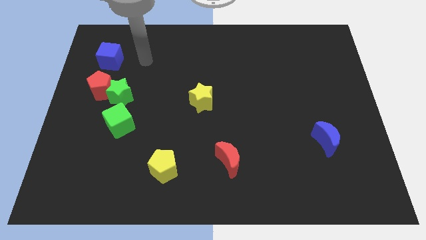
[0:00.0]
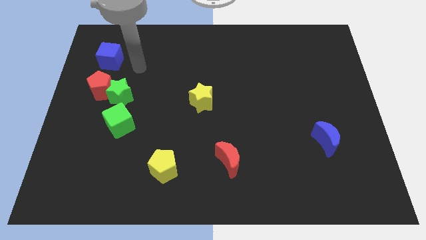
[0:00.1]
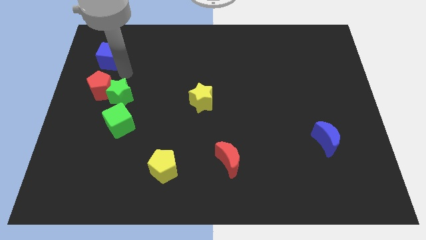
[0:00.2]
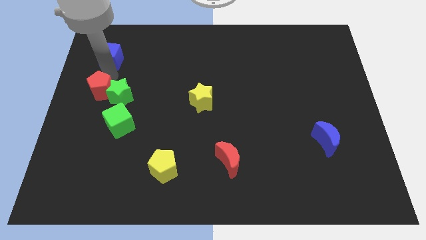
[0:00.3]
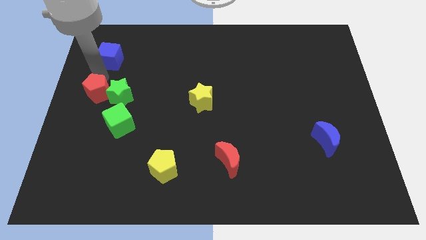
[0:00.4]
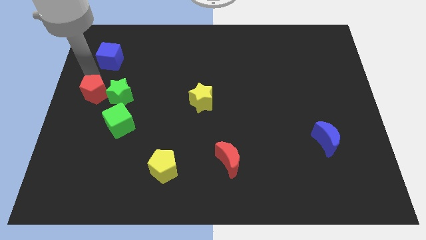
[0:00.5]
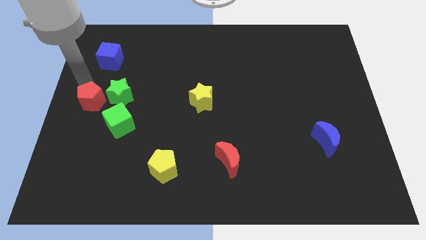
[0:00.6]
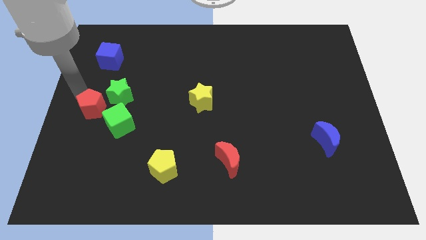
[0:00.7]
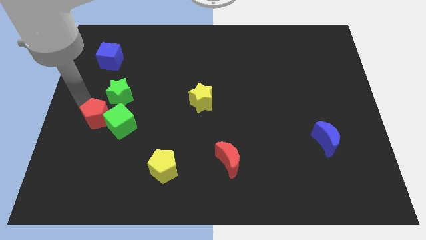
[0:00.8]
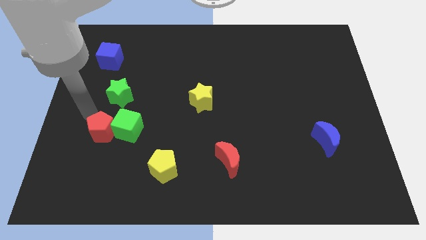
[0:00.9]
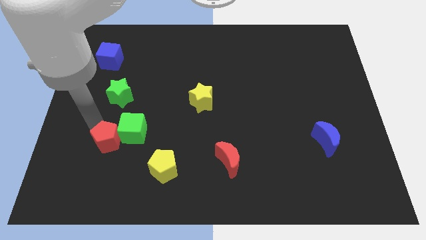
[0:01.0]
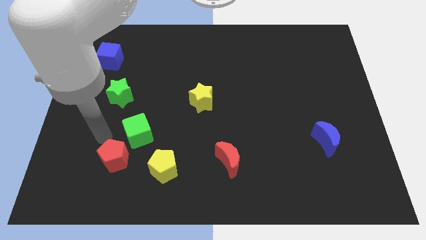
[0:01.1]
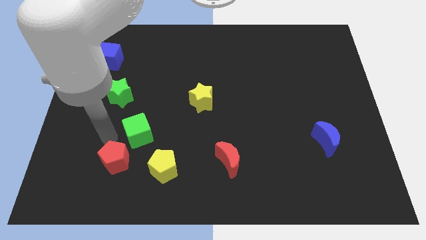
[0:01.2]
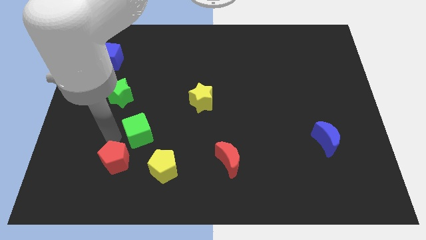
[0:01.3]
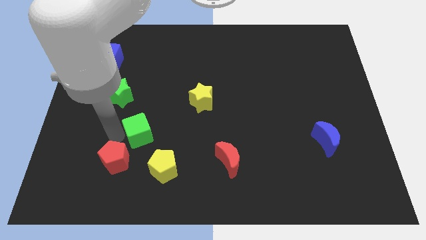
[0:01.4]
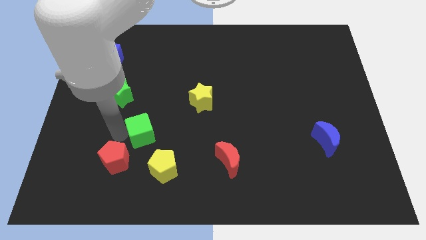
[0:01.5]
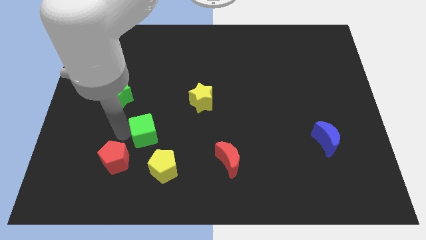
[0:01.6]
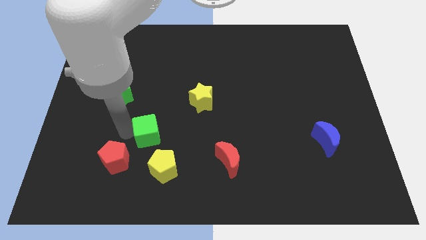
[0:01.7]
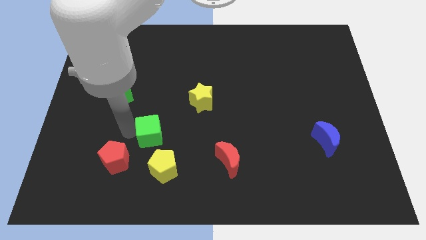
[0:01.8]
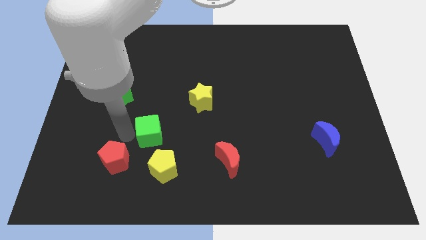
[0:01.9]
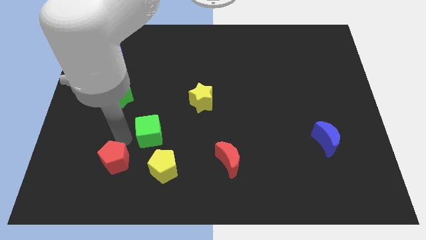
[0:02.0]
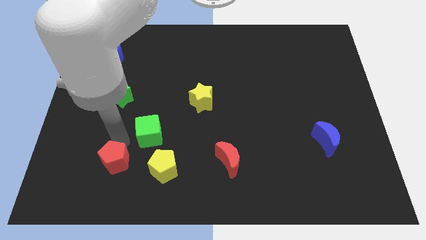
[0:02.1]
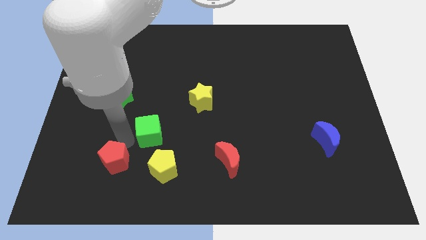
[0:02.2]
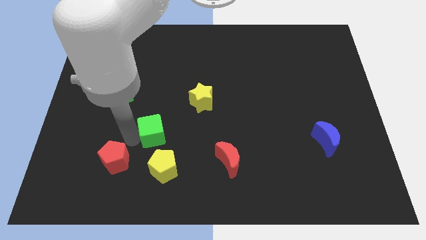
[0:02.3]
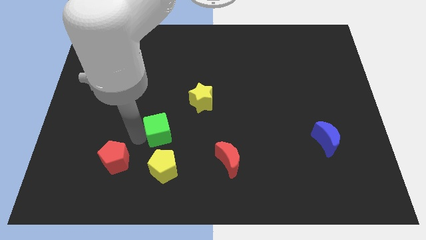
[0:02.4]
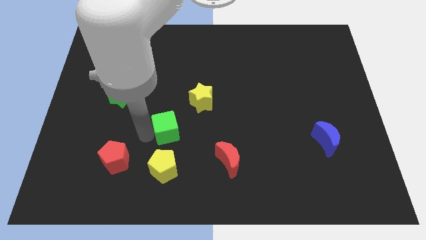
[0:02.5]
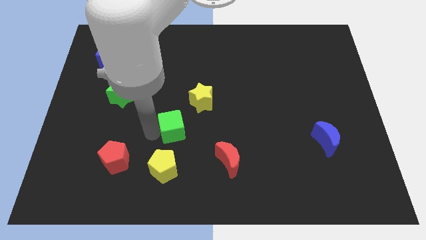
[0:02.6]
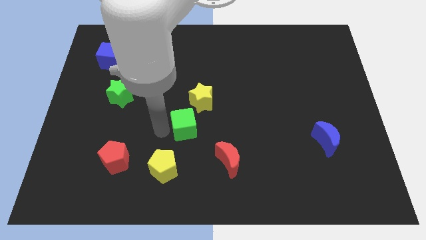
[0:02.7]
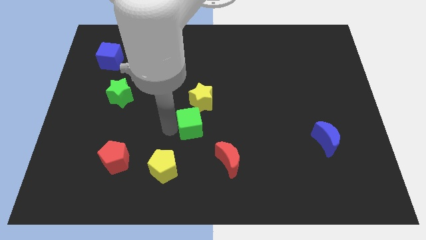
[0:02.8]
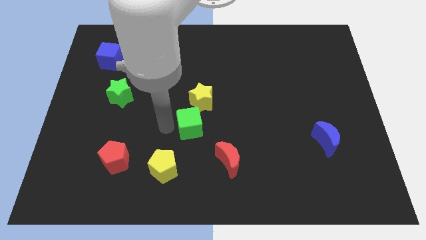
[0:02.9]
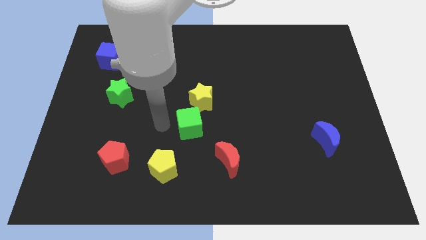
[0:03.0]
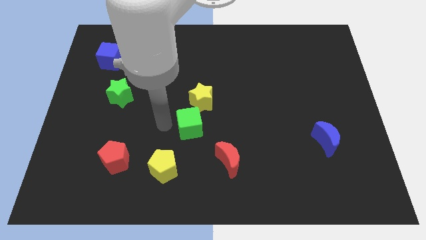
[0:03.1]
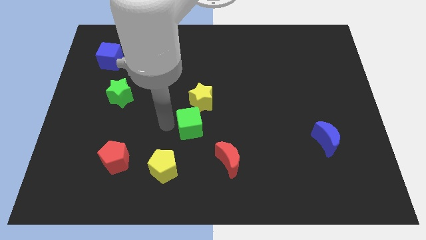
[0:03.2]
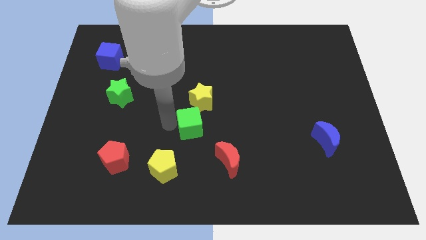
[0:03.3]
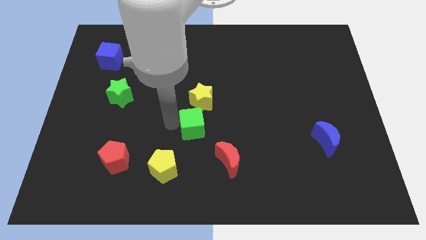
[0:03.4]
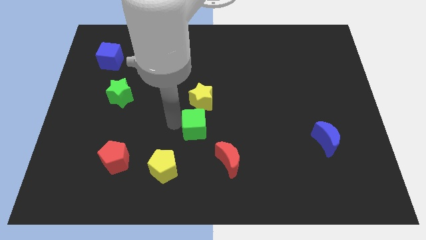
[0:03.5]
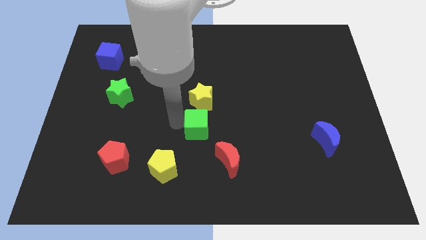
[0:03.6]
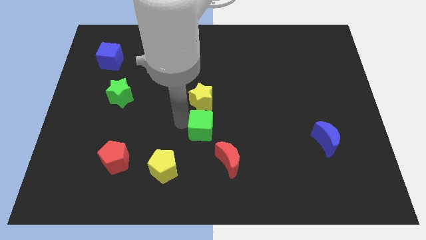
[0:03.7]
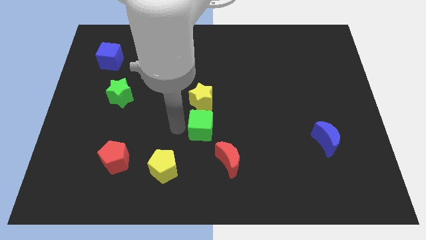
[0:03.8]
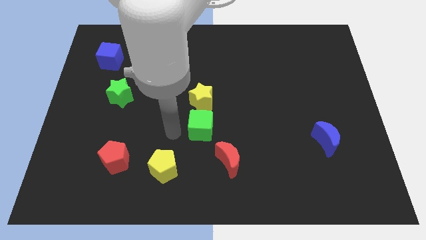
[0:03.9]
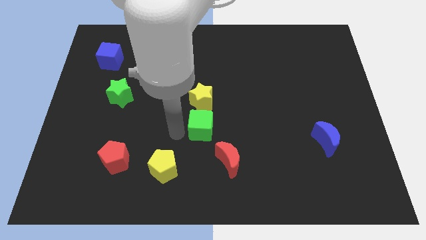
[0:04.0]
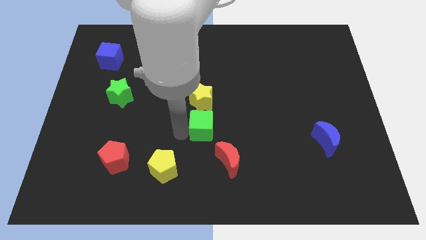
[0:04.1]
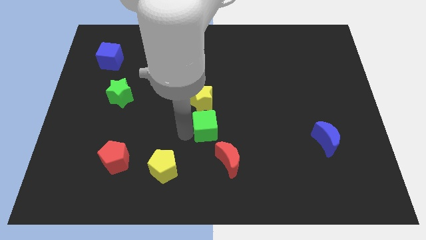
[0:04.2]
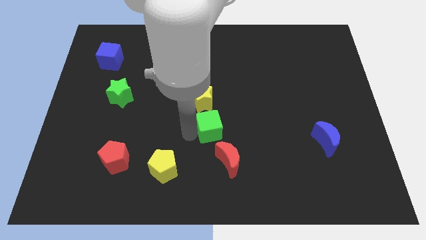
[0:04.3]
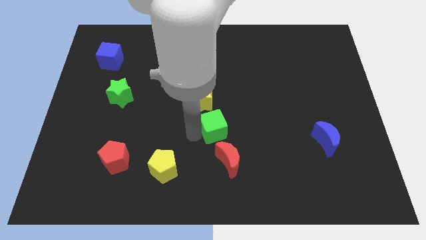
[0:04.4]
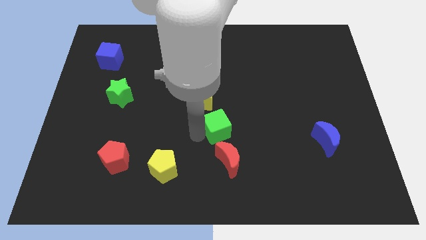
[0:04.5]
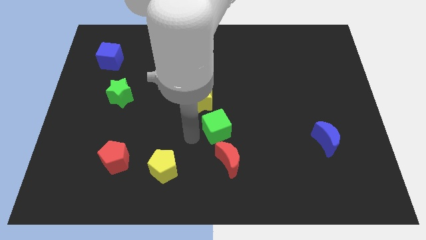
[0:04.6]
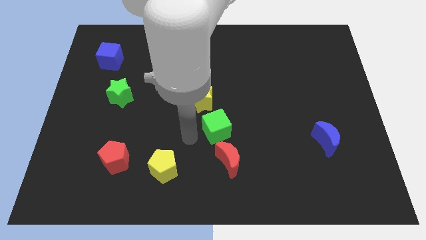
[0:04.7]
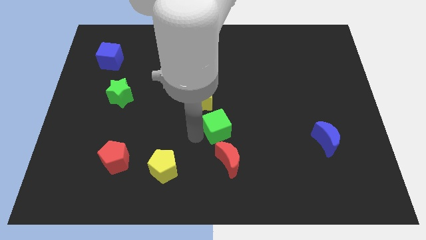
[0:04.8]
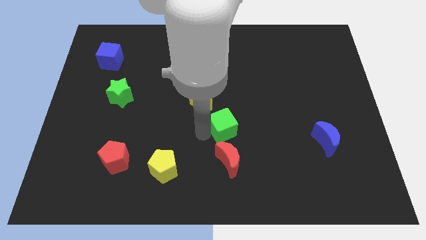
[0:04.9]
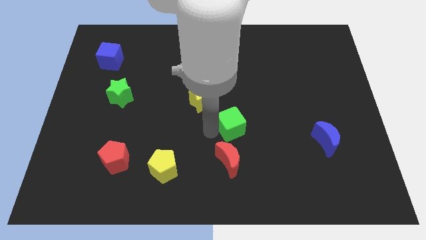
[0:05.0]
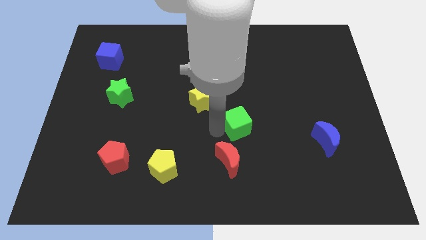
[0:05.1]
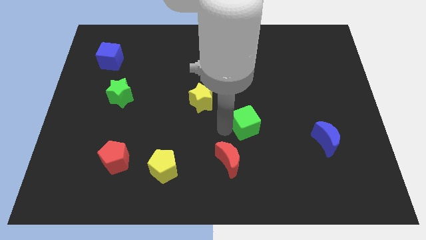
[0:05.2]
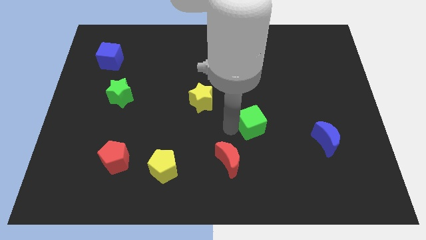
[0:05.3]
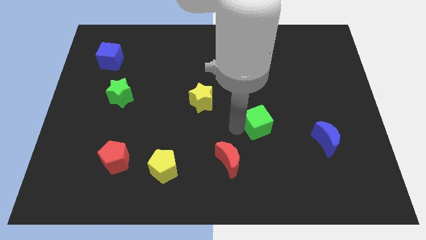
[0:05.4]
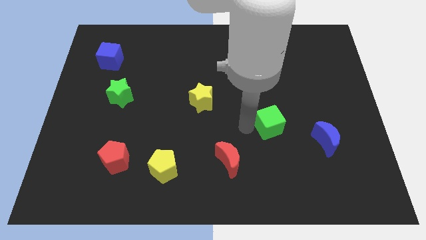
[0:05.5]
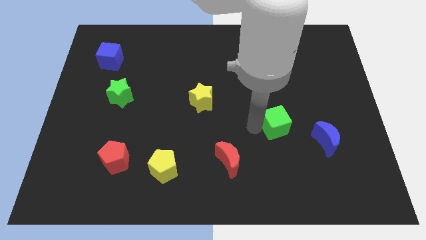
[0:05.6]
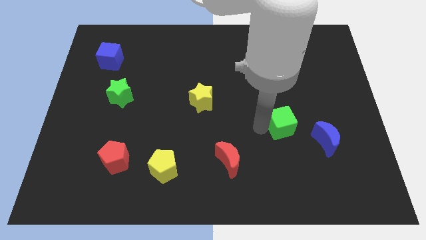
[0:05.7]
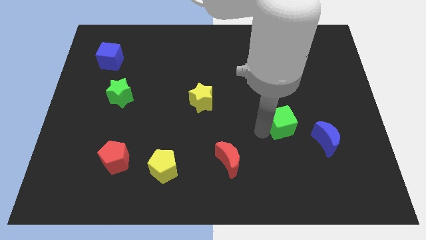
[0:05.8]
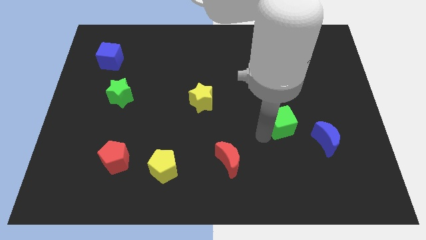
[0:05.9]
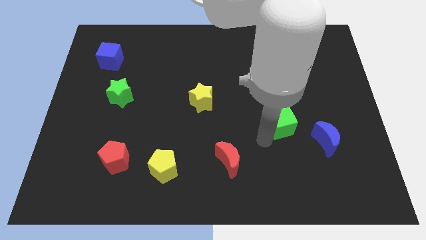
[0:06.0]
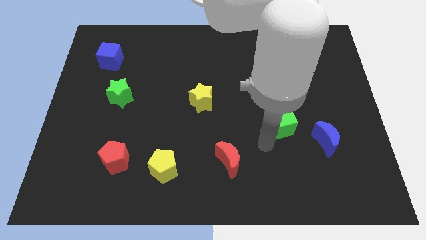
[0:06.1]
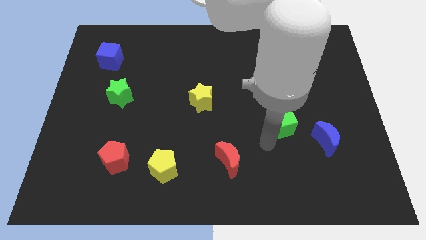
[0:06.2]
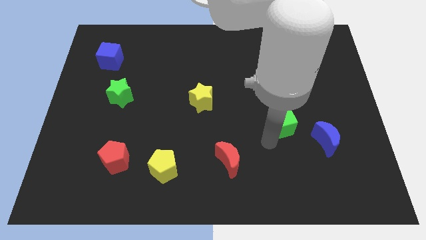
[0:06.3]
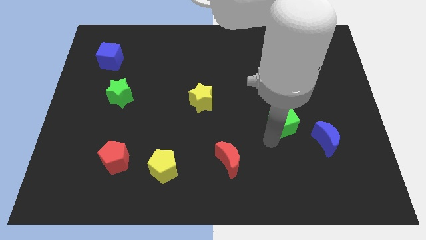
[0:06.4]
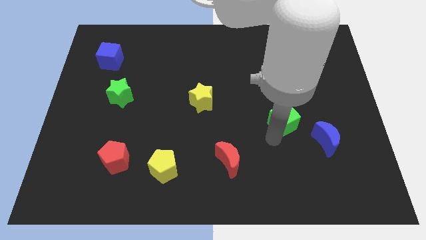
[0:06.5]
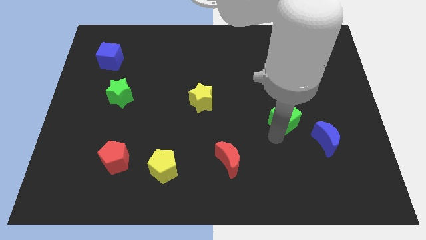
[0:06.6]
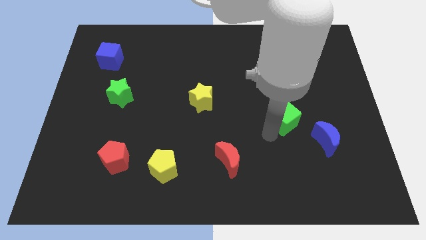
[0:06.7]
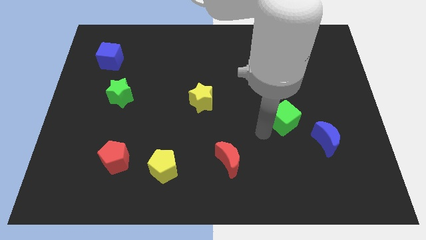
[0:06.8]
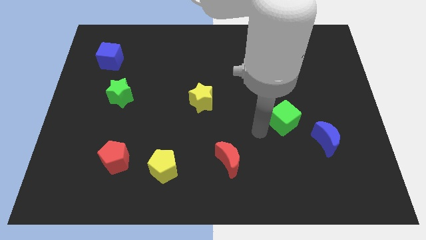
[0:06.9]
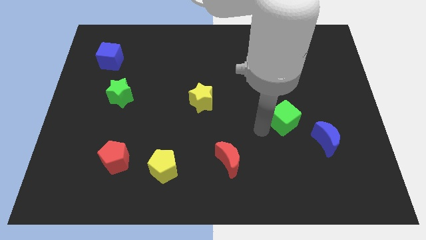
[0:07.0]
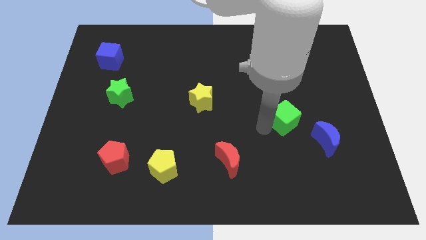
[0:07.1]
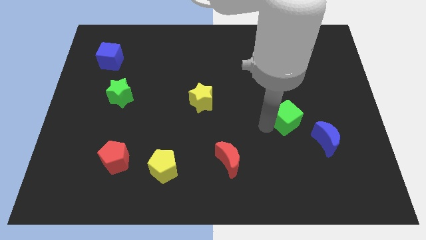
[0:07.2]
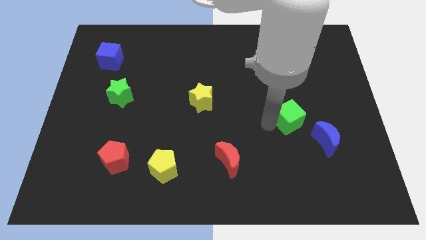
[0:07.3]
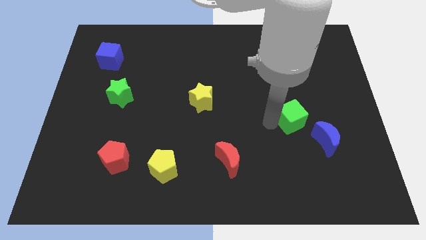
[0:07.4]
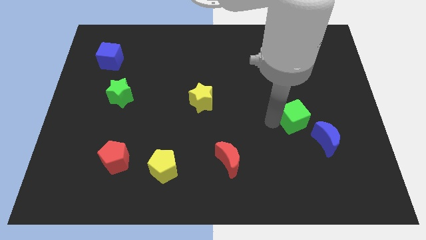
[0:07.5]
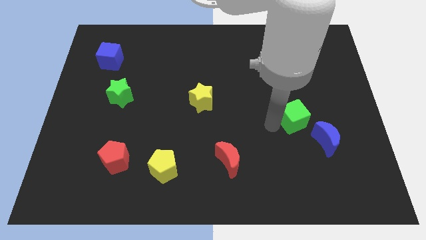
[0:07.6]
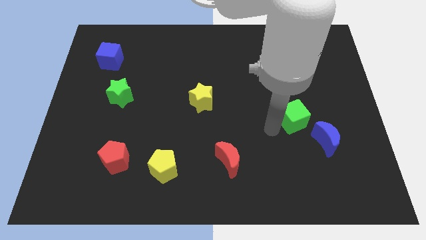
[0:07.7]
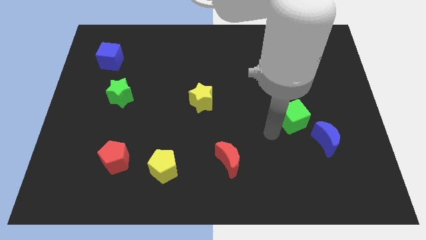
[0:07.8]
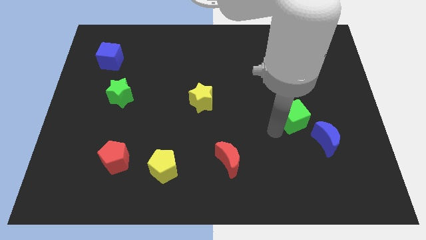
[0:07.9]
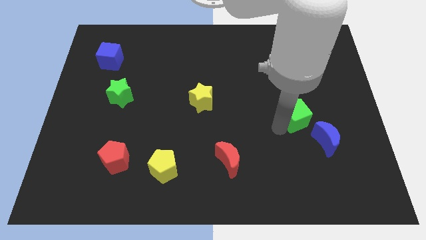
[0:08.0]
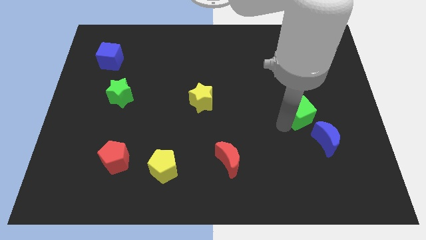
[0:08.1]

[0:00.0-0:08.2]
put the green cube to the top of the blue moon
